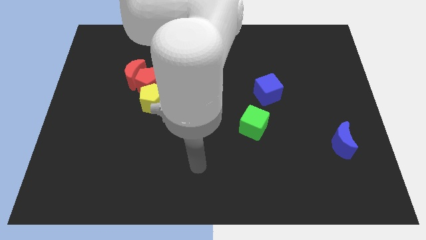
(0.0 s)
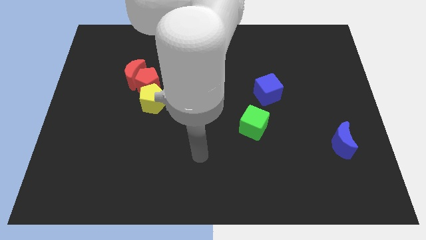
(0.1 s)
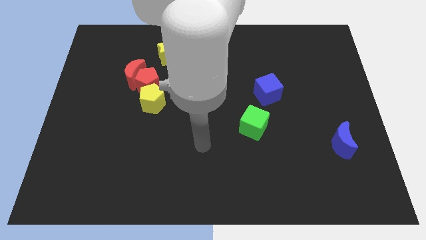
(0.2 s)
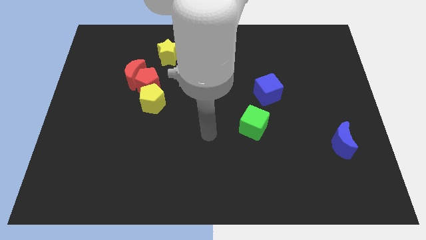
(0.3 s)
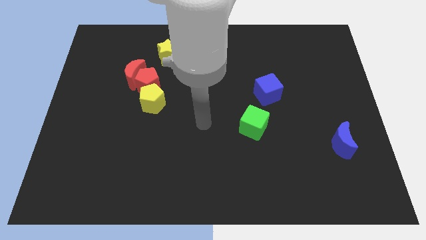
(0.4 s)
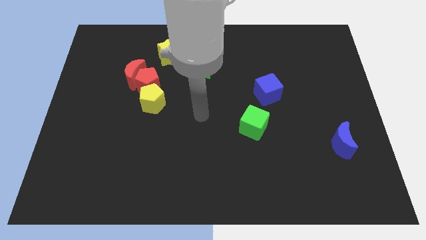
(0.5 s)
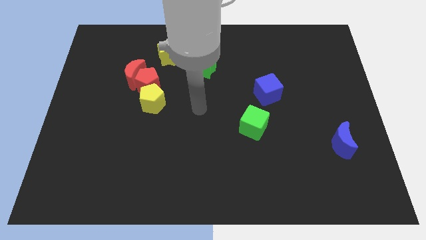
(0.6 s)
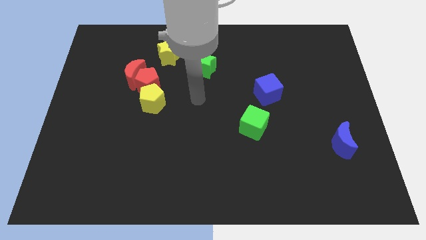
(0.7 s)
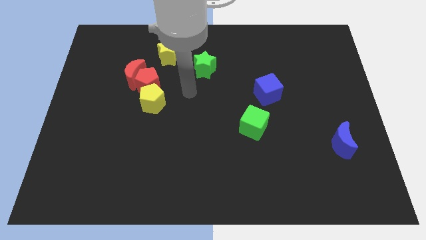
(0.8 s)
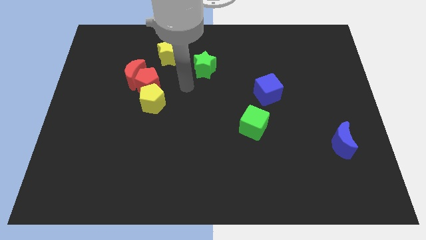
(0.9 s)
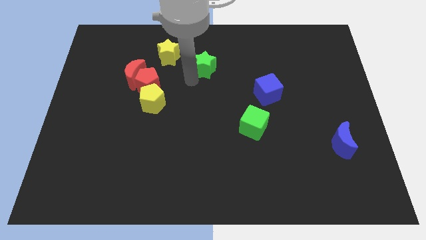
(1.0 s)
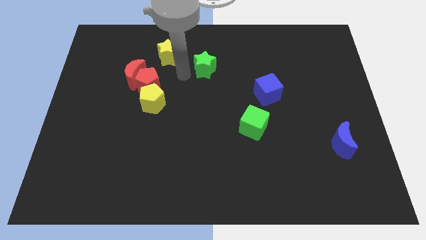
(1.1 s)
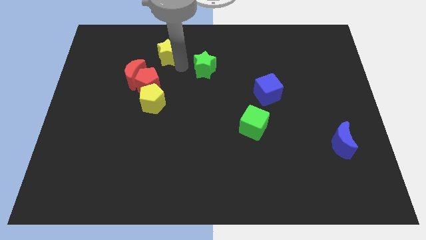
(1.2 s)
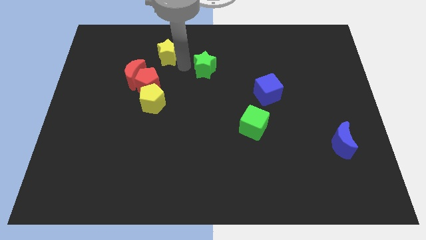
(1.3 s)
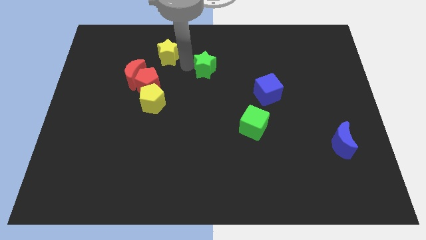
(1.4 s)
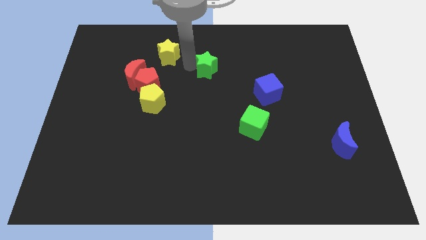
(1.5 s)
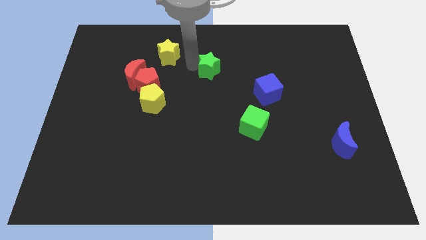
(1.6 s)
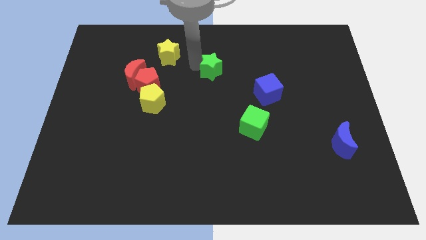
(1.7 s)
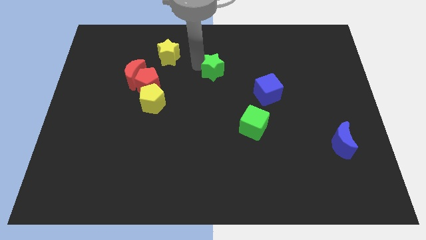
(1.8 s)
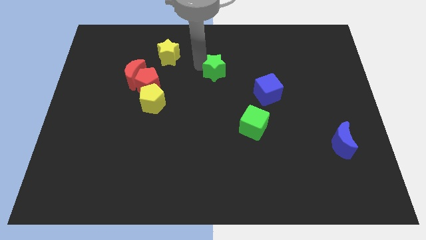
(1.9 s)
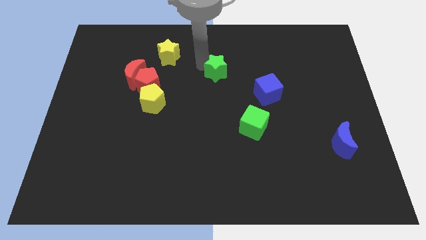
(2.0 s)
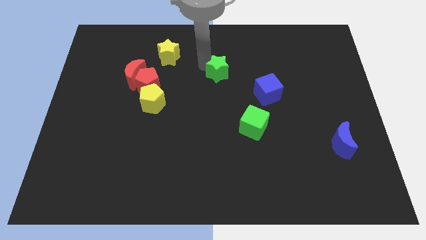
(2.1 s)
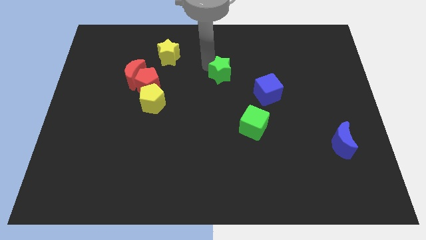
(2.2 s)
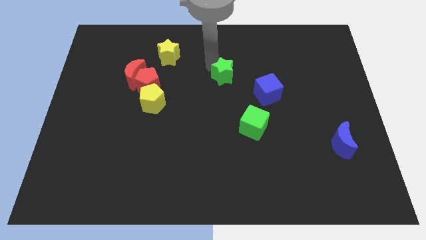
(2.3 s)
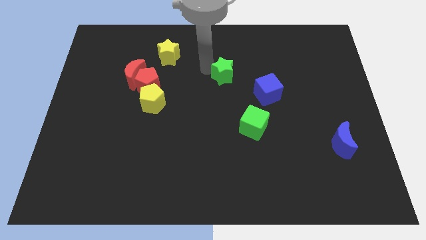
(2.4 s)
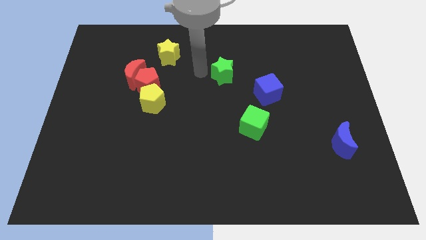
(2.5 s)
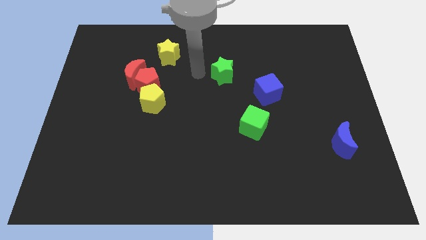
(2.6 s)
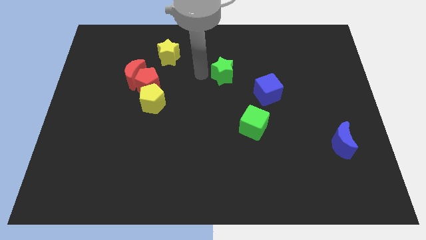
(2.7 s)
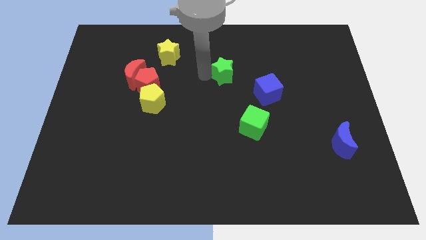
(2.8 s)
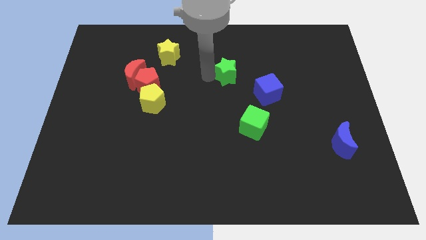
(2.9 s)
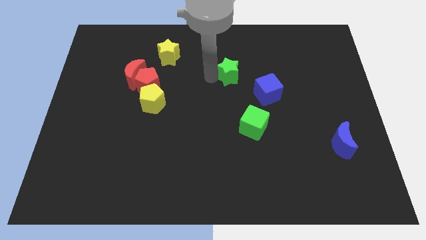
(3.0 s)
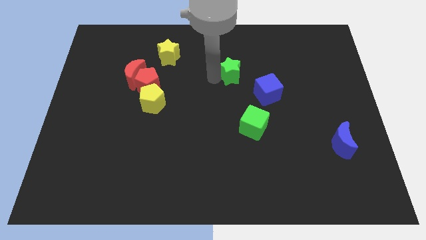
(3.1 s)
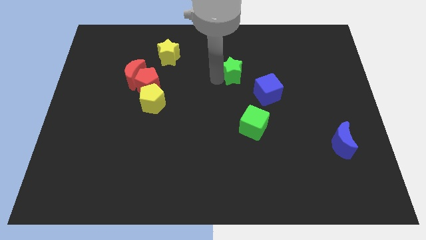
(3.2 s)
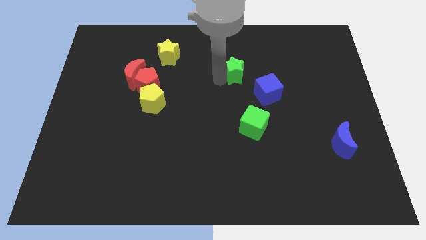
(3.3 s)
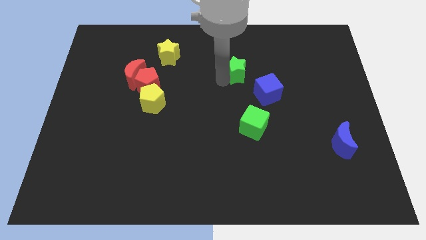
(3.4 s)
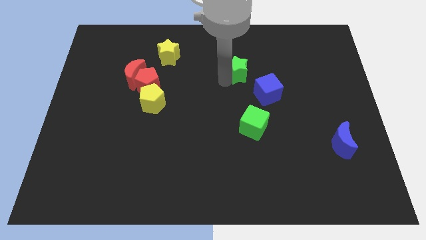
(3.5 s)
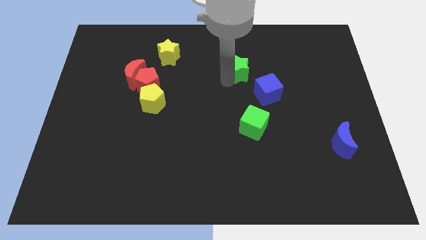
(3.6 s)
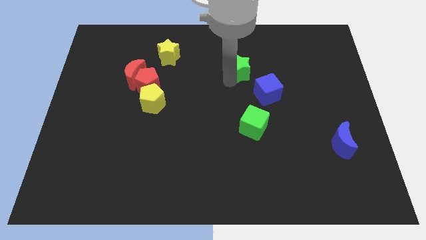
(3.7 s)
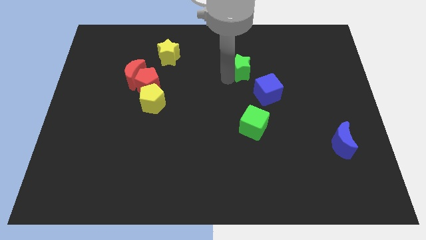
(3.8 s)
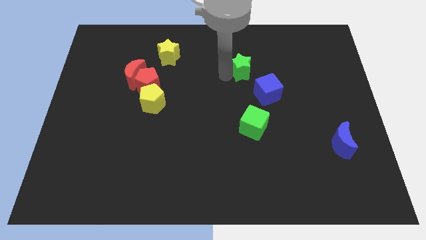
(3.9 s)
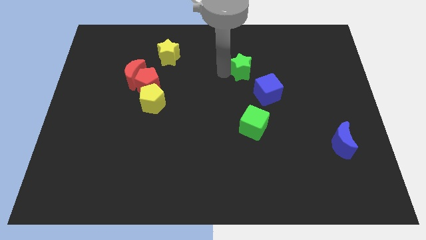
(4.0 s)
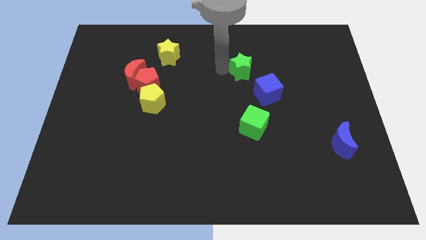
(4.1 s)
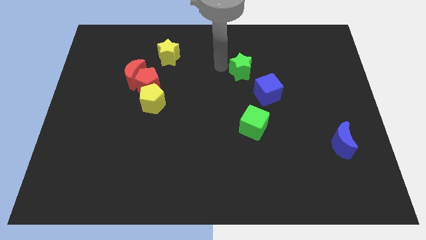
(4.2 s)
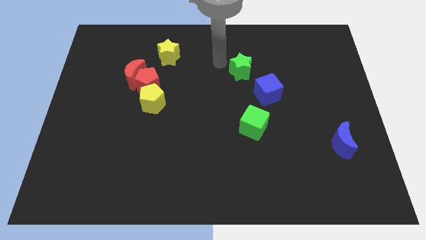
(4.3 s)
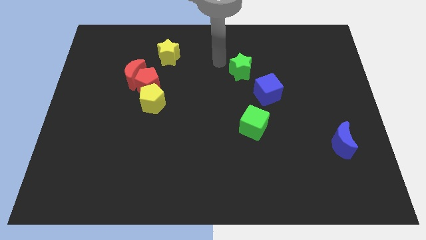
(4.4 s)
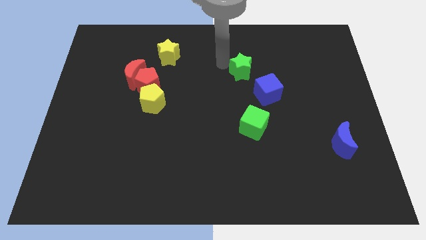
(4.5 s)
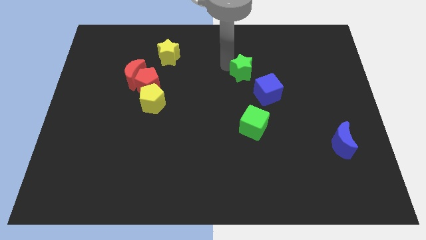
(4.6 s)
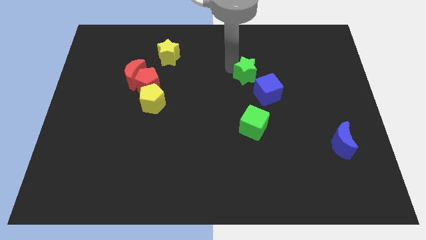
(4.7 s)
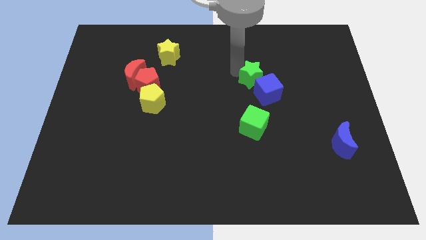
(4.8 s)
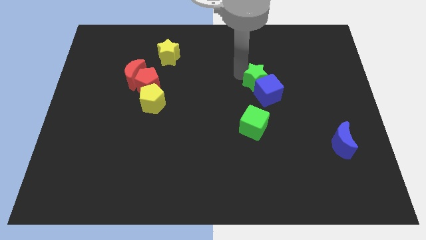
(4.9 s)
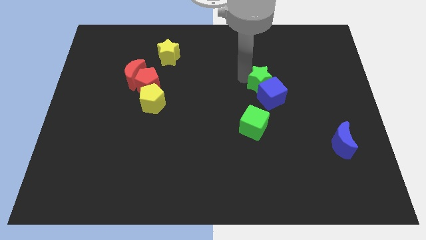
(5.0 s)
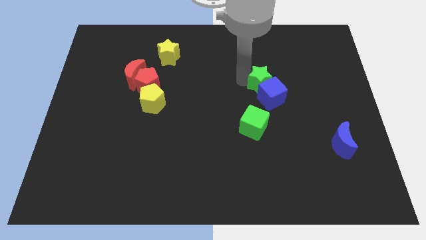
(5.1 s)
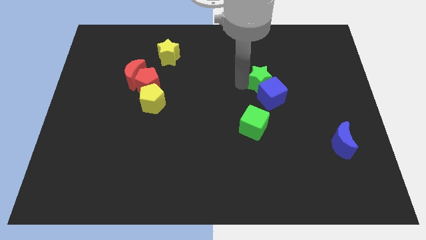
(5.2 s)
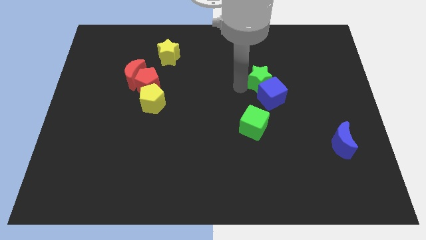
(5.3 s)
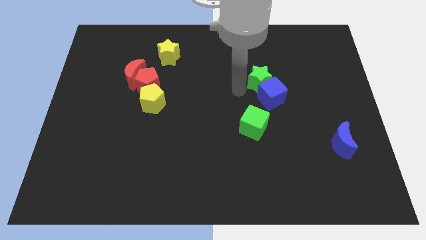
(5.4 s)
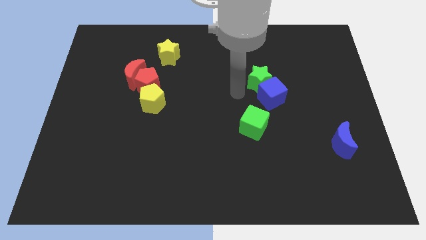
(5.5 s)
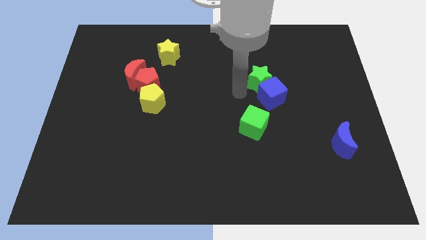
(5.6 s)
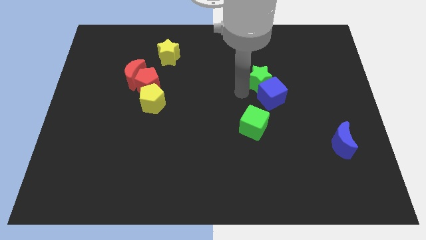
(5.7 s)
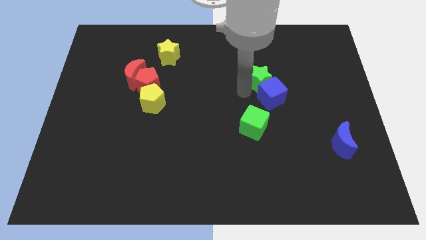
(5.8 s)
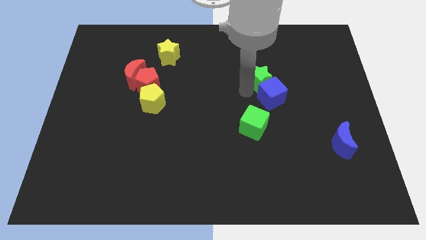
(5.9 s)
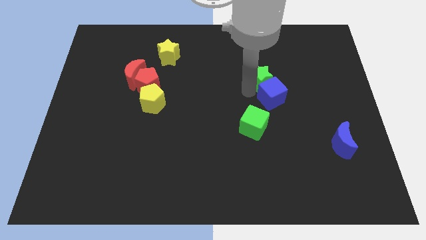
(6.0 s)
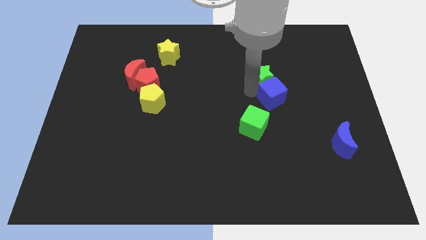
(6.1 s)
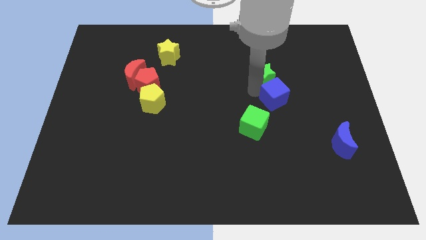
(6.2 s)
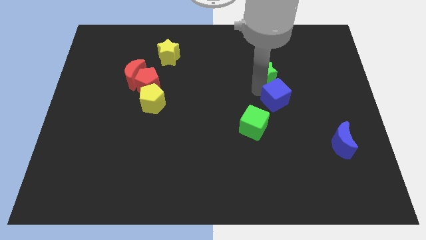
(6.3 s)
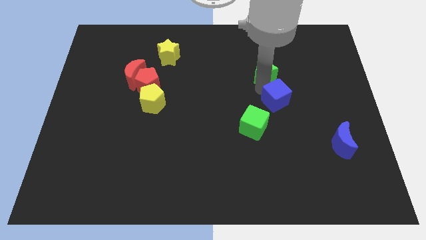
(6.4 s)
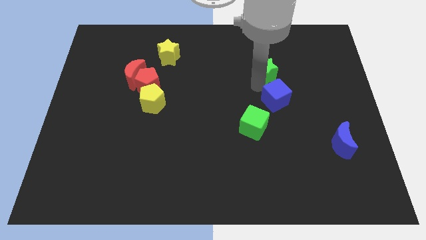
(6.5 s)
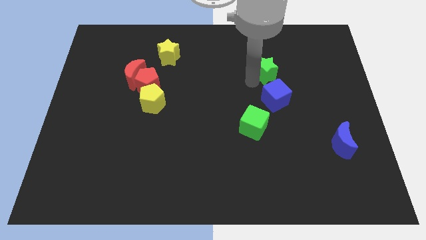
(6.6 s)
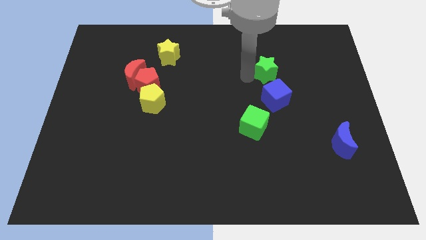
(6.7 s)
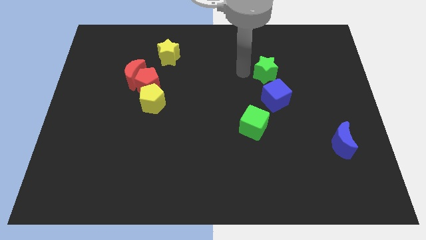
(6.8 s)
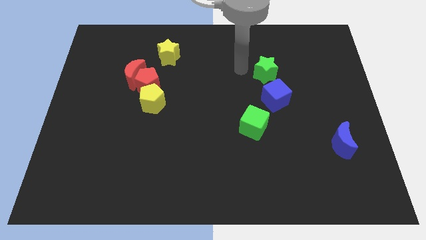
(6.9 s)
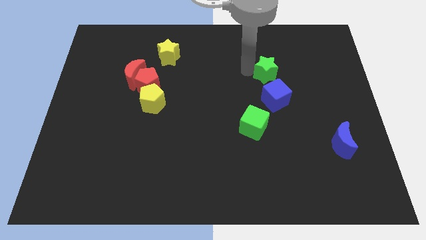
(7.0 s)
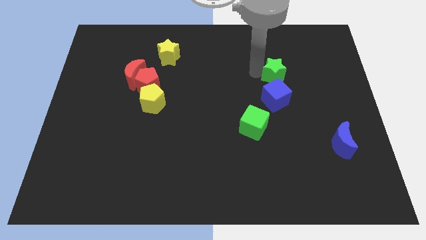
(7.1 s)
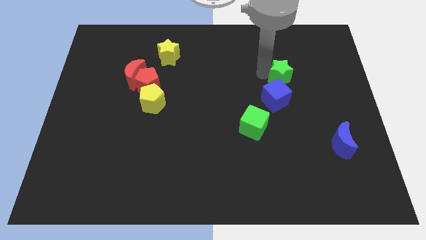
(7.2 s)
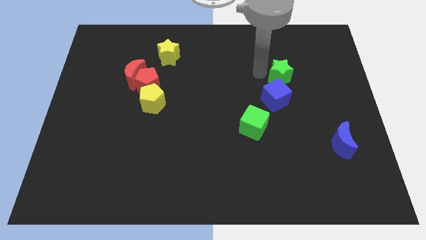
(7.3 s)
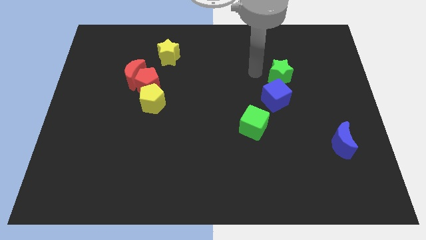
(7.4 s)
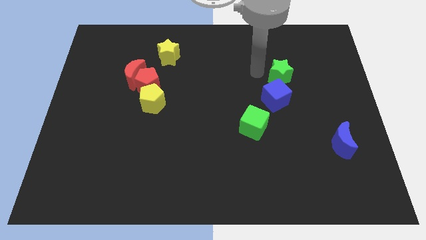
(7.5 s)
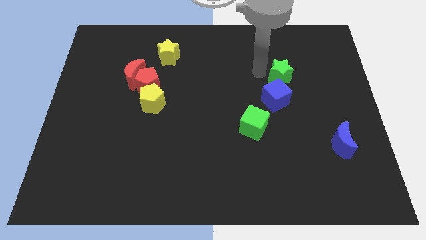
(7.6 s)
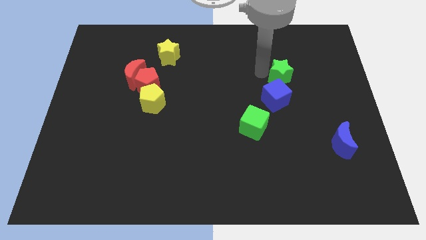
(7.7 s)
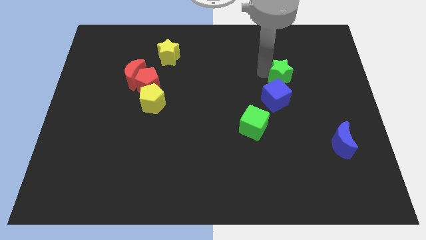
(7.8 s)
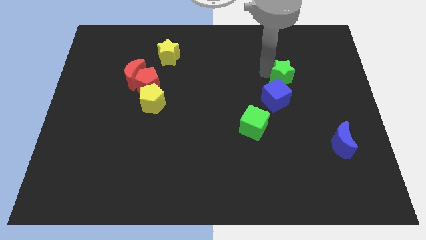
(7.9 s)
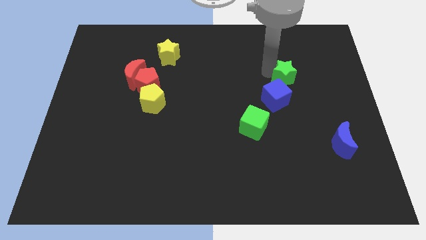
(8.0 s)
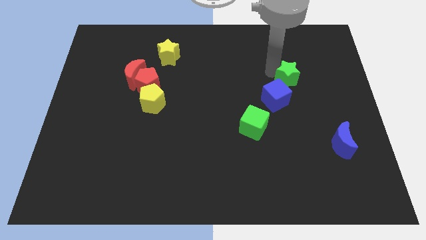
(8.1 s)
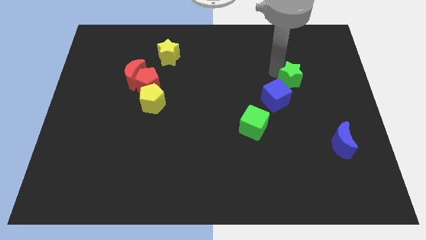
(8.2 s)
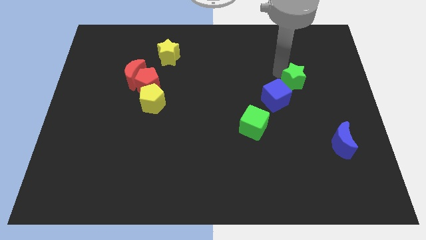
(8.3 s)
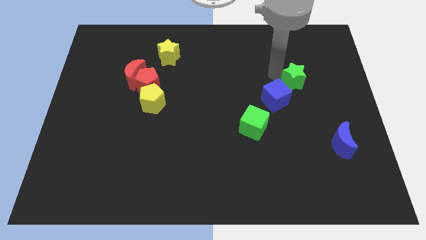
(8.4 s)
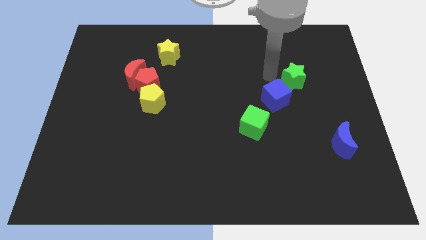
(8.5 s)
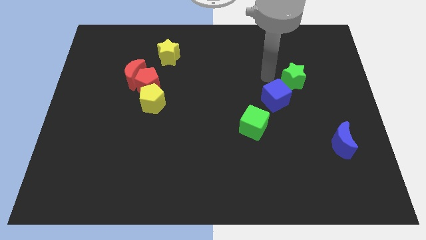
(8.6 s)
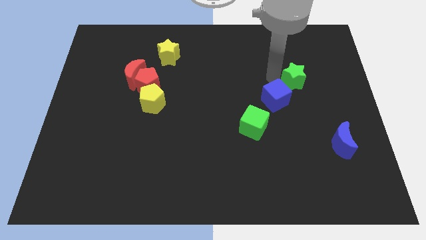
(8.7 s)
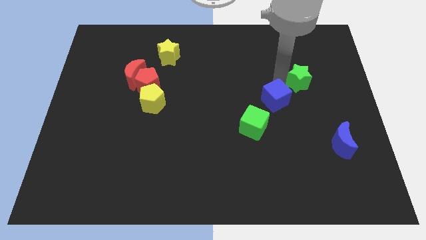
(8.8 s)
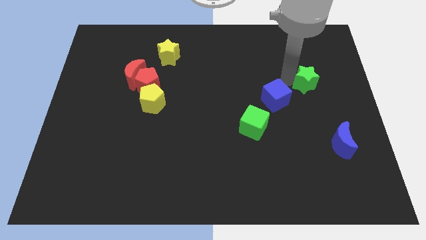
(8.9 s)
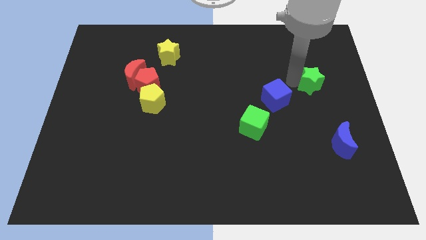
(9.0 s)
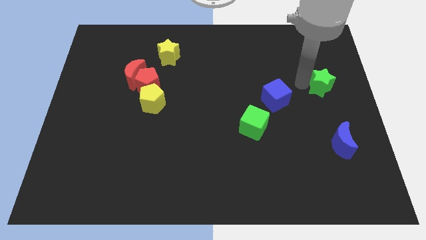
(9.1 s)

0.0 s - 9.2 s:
move the green star to the center right
